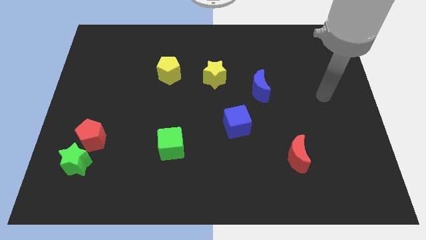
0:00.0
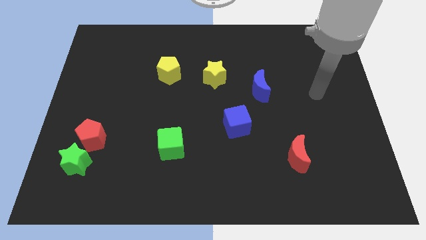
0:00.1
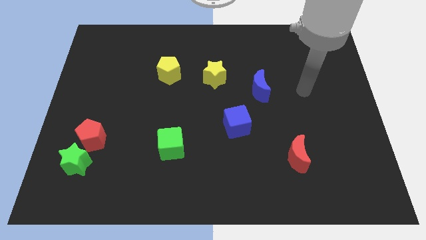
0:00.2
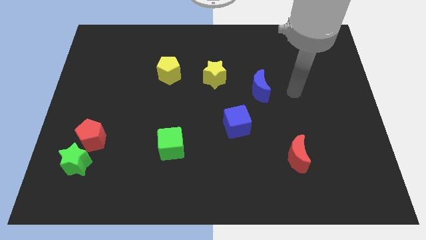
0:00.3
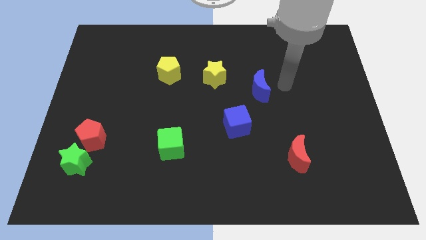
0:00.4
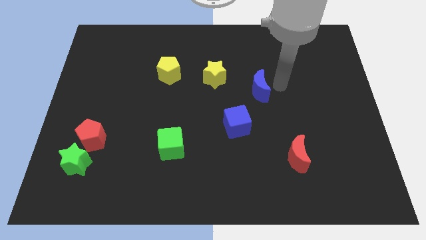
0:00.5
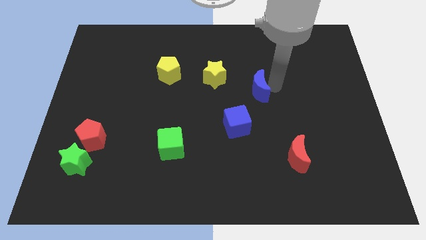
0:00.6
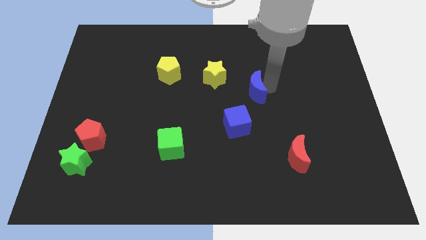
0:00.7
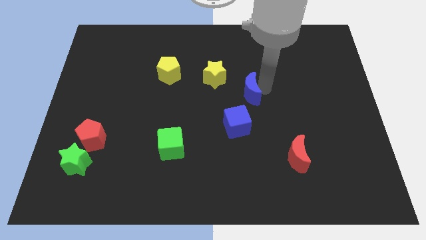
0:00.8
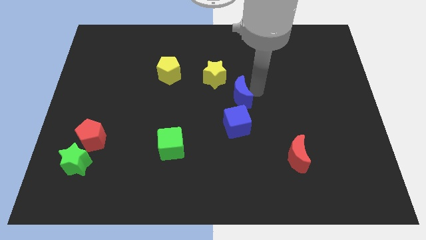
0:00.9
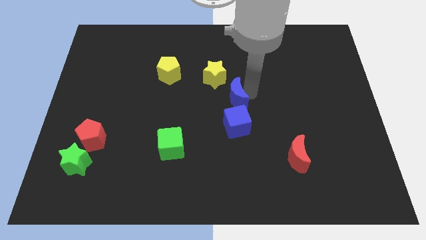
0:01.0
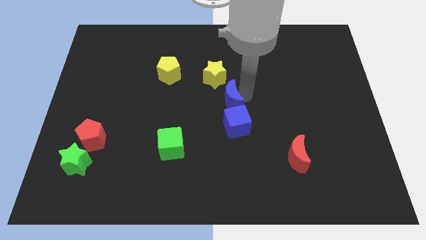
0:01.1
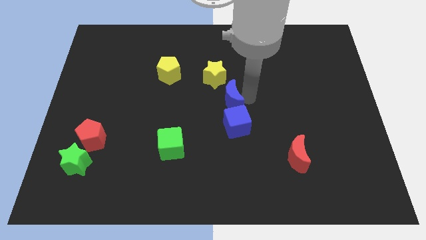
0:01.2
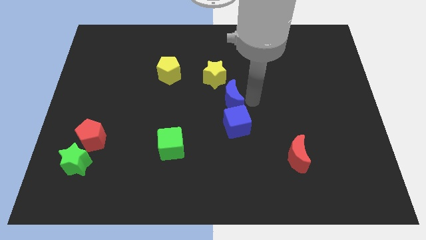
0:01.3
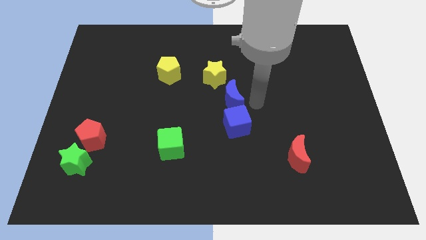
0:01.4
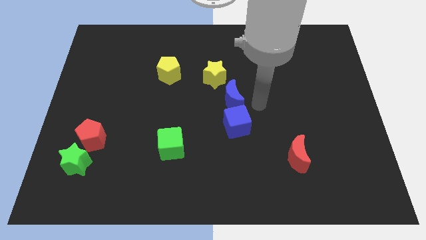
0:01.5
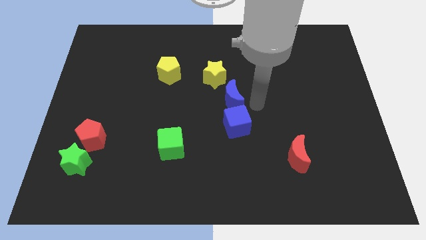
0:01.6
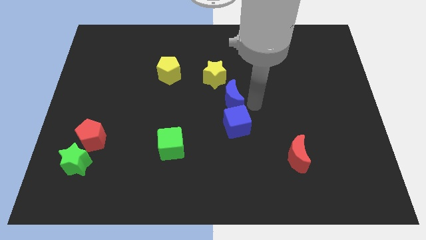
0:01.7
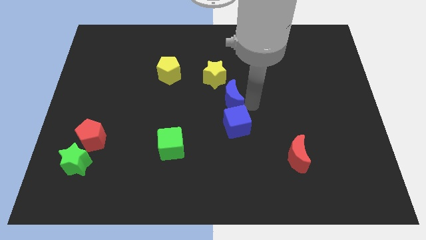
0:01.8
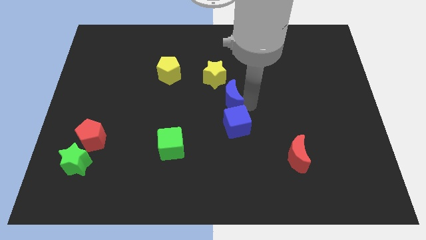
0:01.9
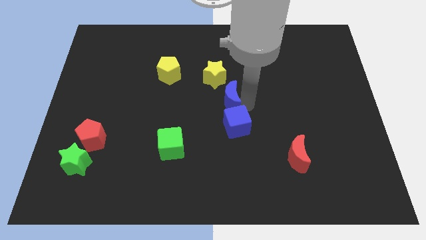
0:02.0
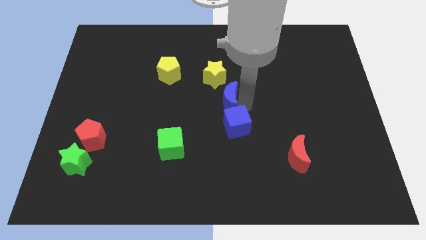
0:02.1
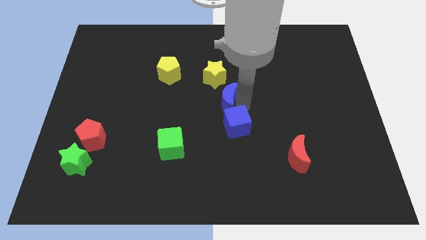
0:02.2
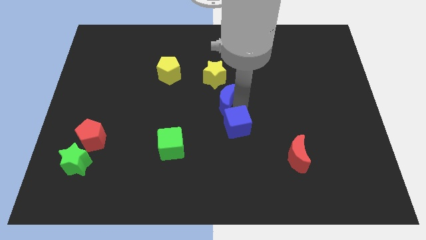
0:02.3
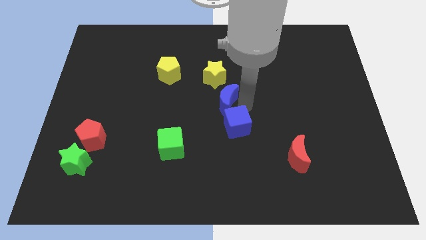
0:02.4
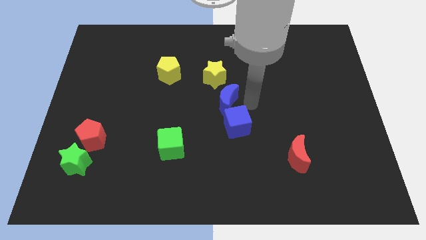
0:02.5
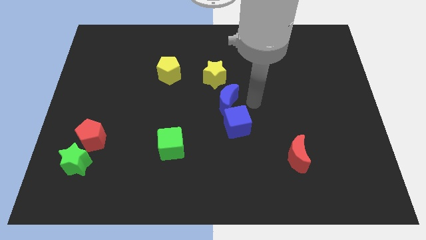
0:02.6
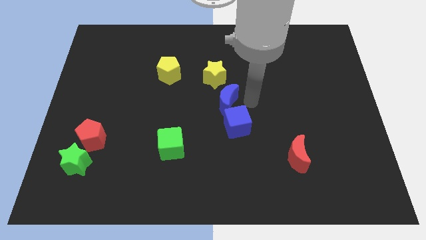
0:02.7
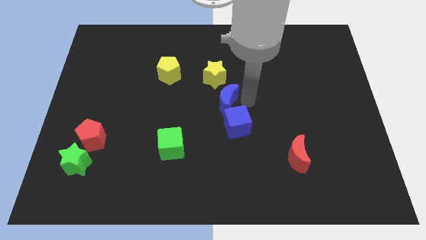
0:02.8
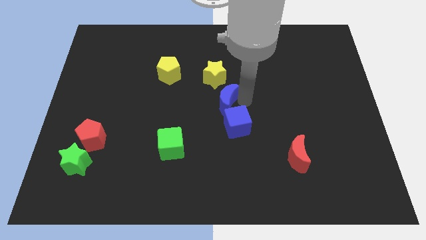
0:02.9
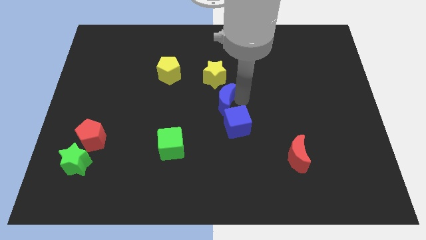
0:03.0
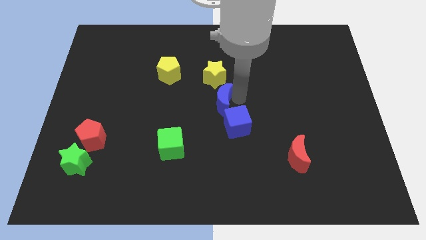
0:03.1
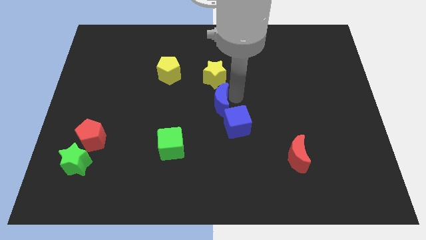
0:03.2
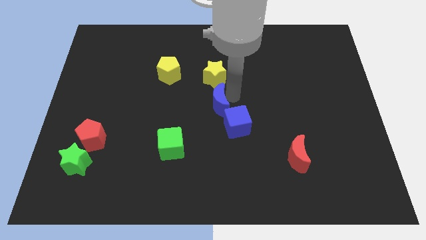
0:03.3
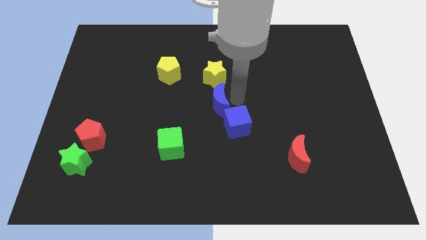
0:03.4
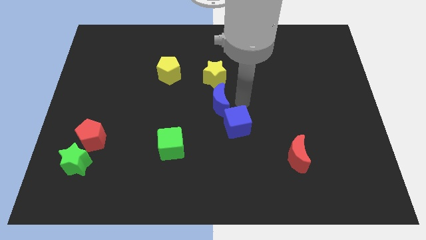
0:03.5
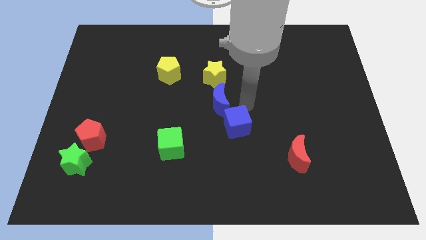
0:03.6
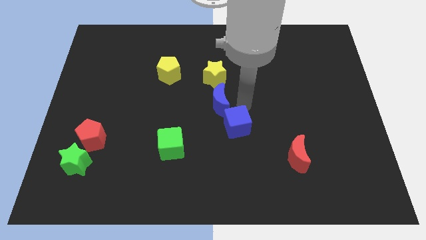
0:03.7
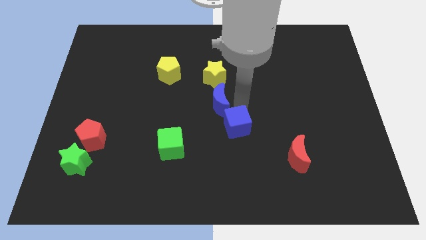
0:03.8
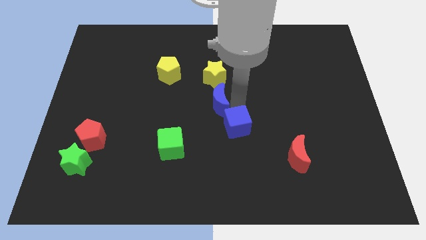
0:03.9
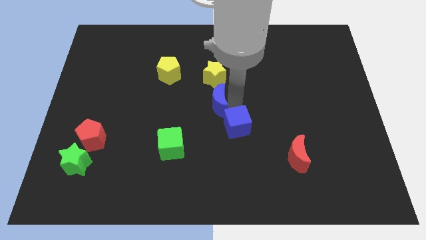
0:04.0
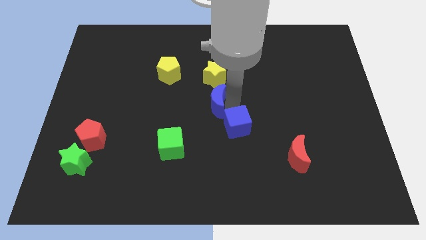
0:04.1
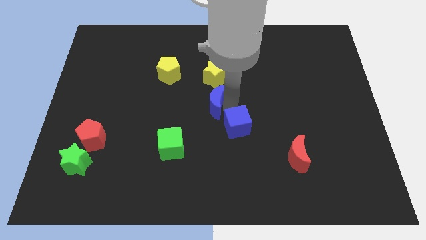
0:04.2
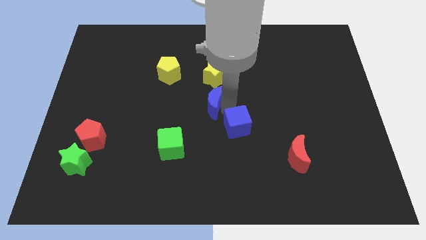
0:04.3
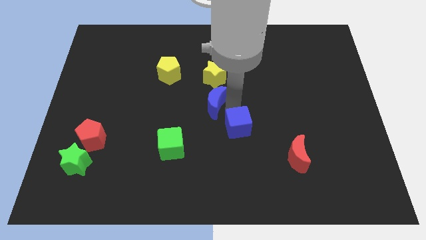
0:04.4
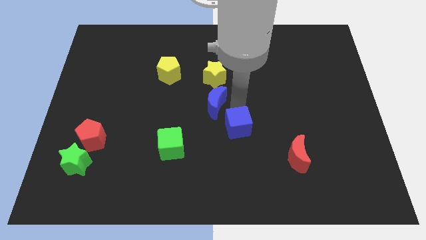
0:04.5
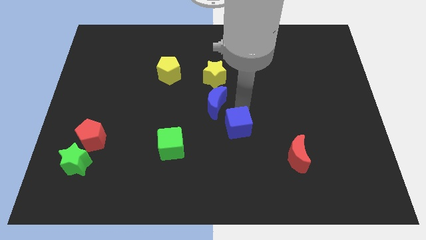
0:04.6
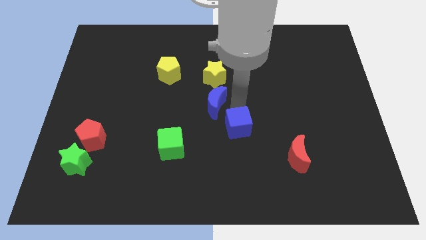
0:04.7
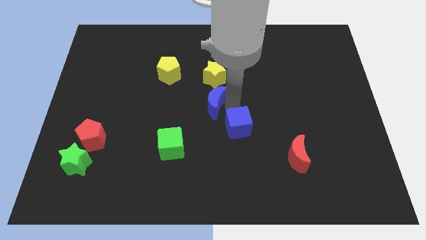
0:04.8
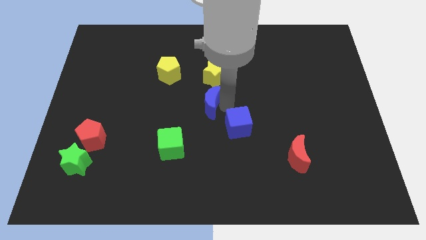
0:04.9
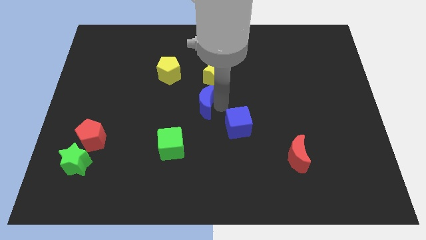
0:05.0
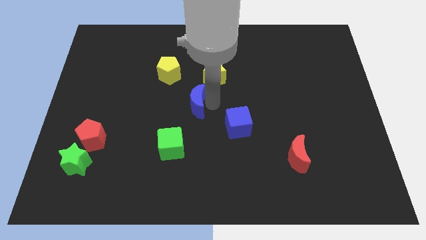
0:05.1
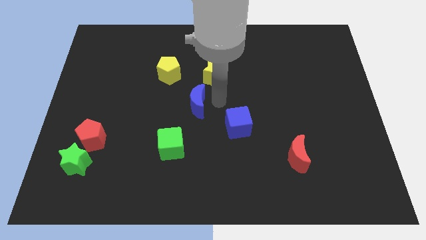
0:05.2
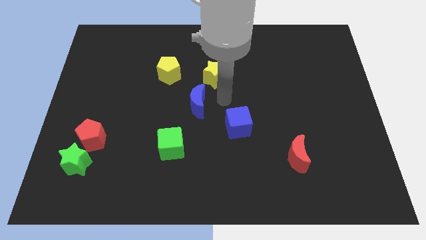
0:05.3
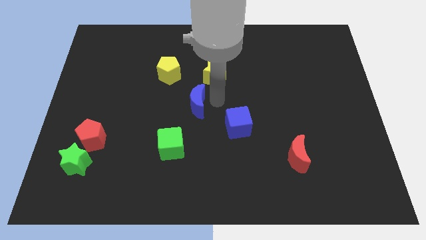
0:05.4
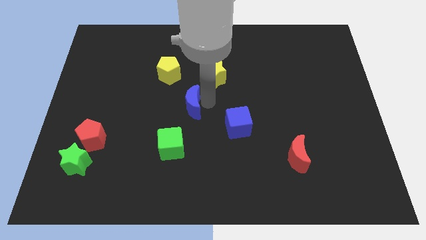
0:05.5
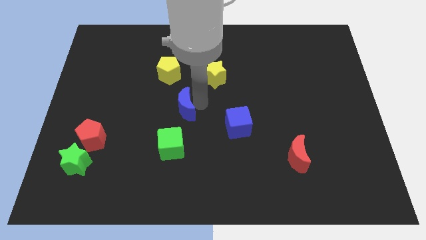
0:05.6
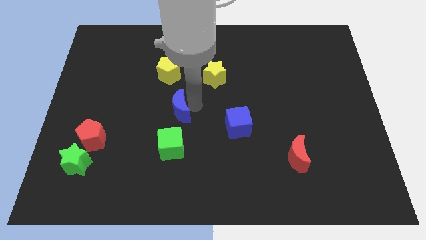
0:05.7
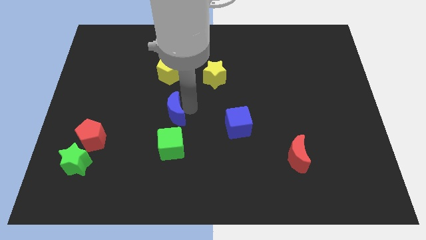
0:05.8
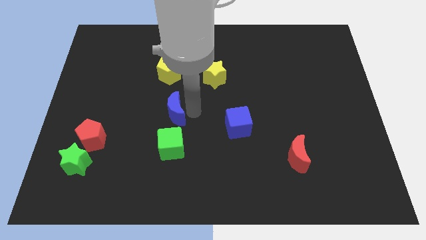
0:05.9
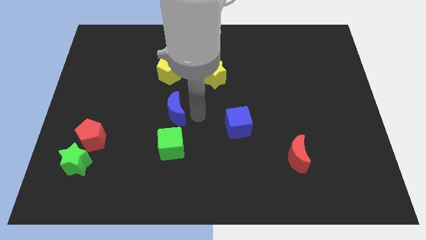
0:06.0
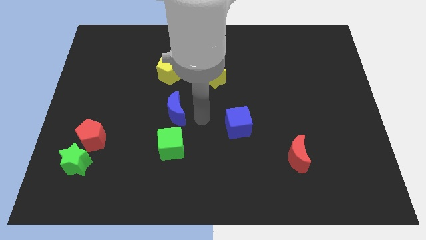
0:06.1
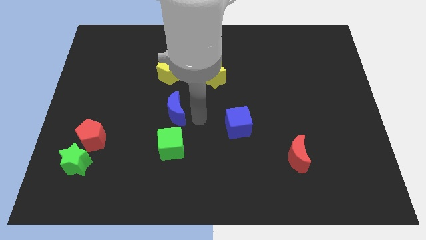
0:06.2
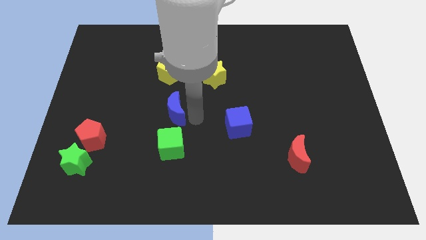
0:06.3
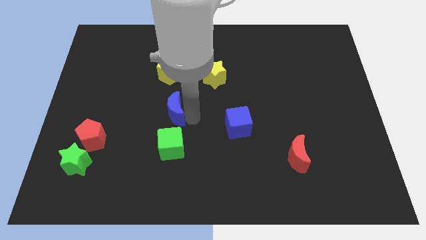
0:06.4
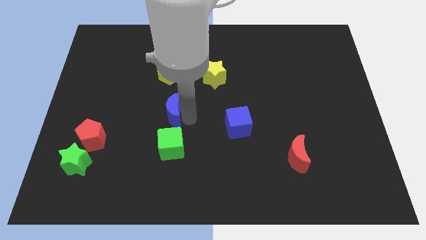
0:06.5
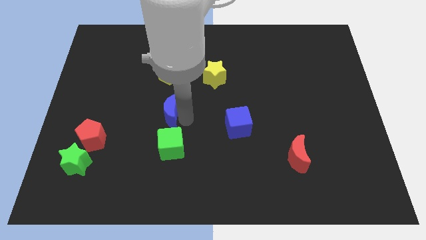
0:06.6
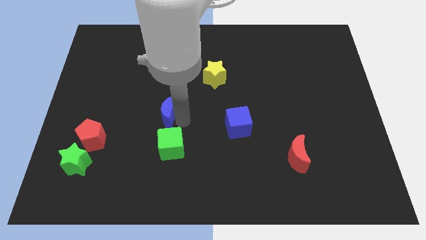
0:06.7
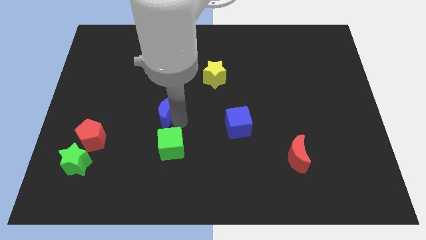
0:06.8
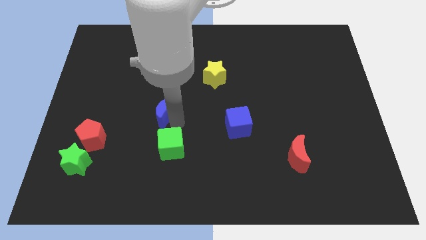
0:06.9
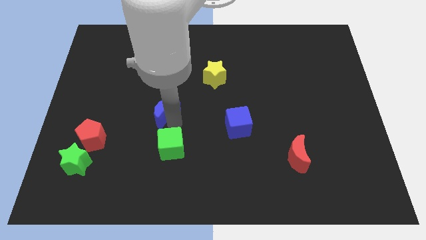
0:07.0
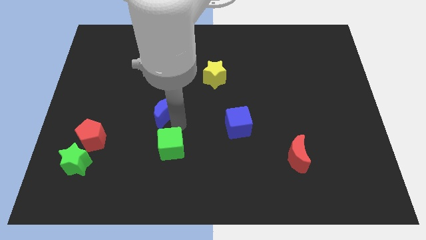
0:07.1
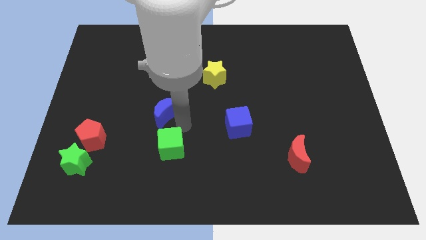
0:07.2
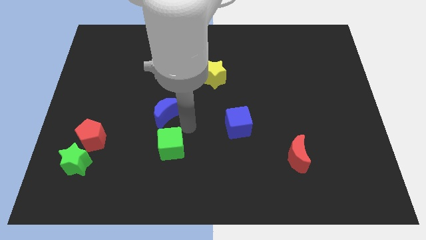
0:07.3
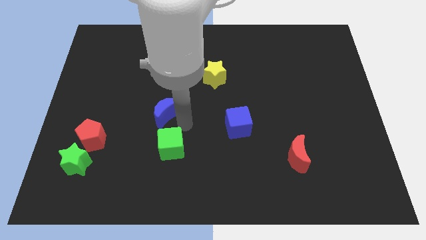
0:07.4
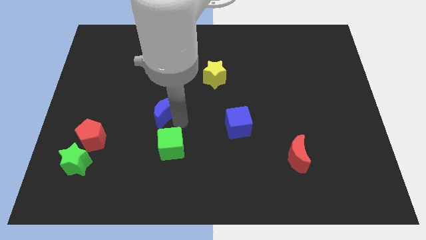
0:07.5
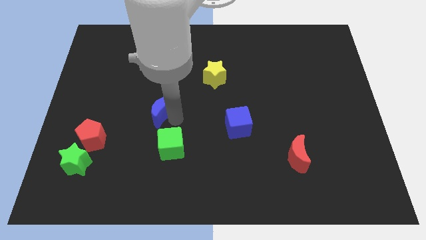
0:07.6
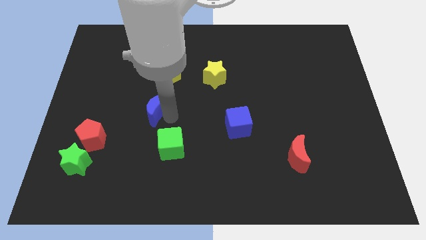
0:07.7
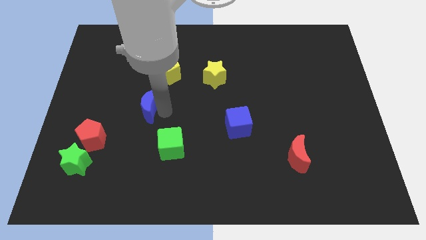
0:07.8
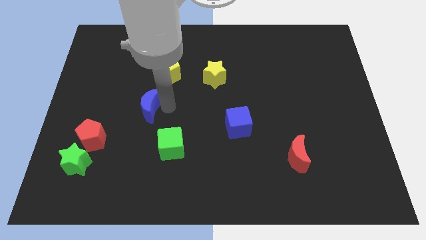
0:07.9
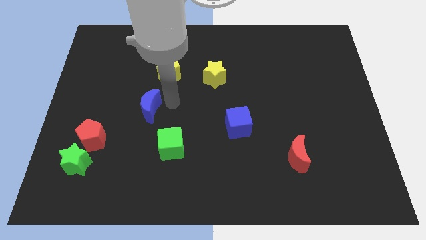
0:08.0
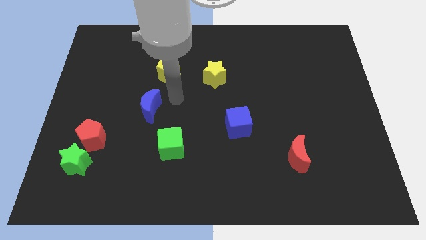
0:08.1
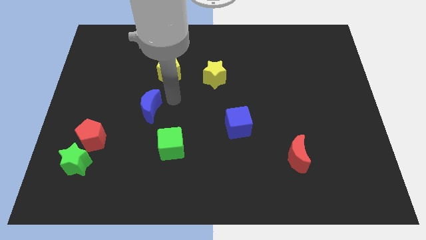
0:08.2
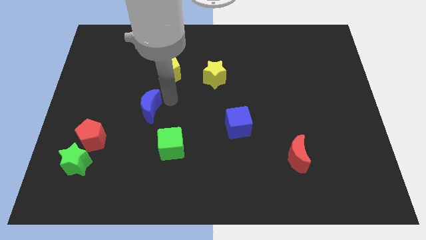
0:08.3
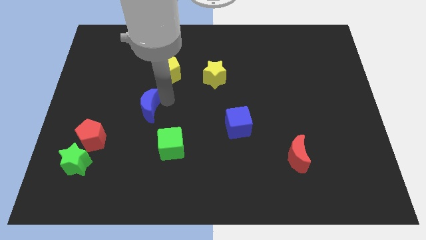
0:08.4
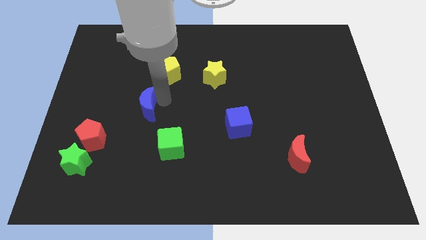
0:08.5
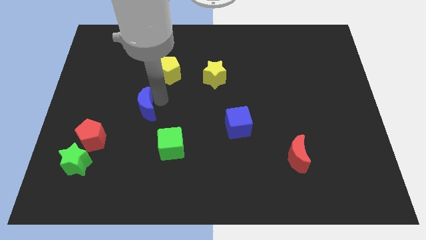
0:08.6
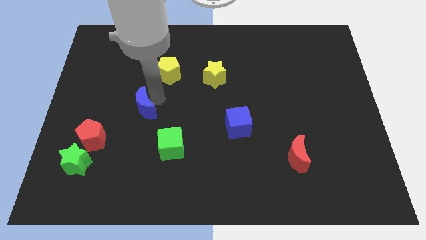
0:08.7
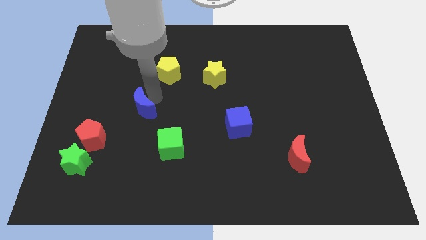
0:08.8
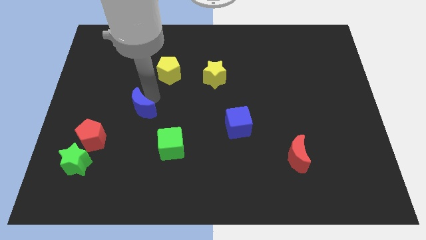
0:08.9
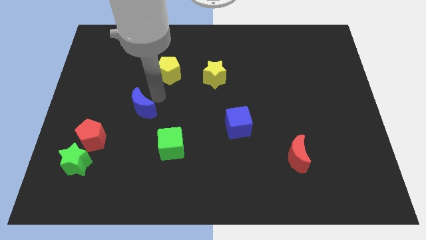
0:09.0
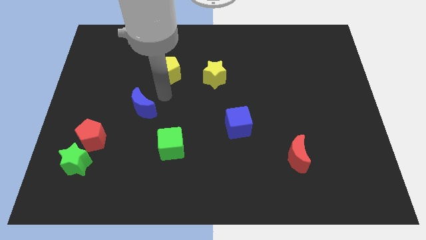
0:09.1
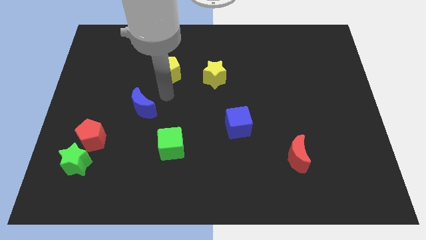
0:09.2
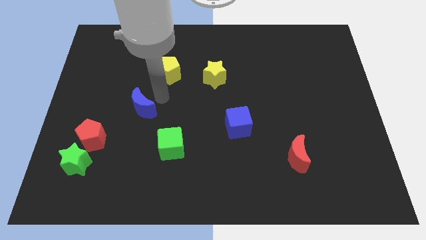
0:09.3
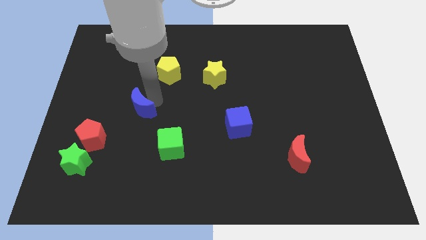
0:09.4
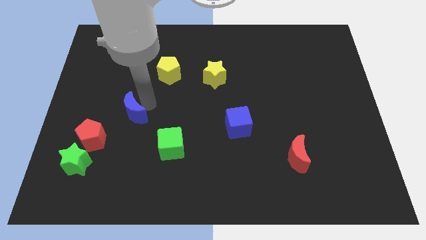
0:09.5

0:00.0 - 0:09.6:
move the blue moon diagonally up and to the right of the red pentagon
